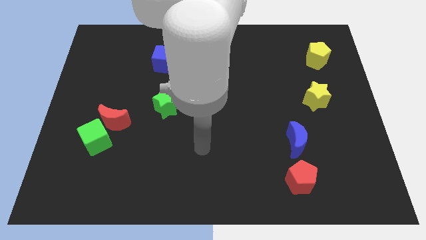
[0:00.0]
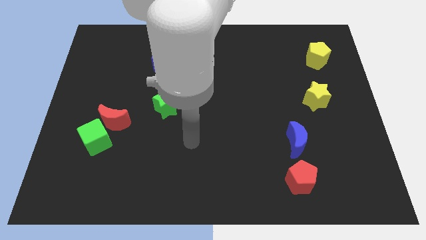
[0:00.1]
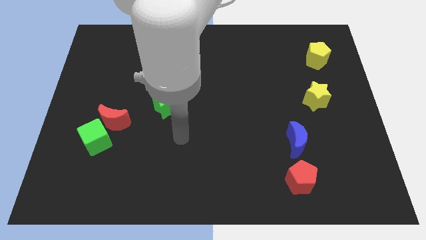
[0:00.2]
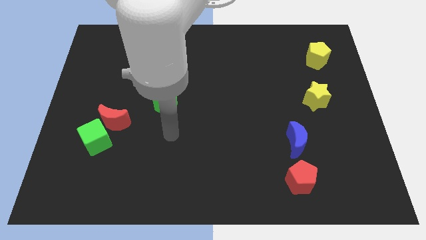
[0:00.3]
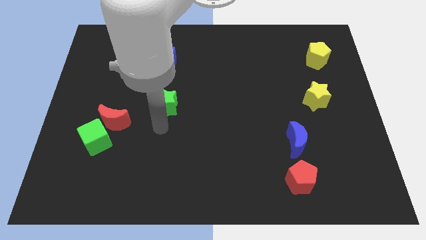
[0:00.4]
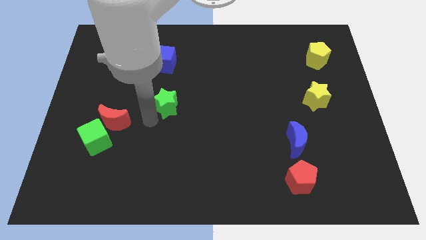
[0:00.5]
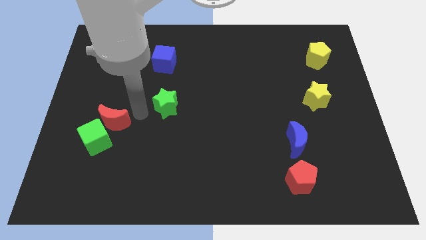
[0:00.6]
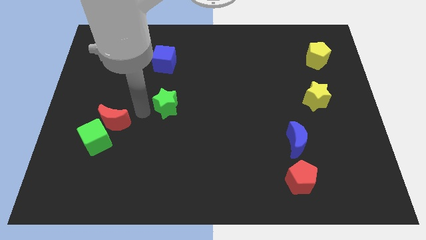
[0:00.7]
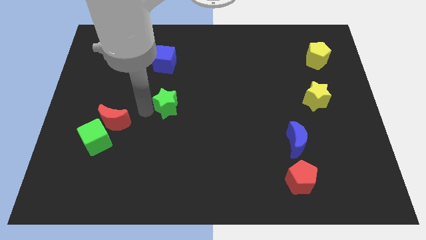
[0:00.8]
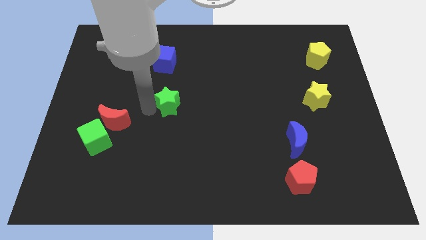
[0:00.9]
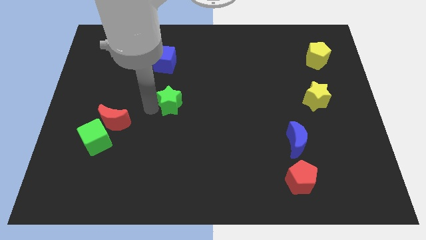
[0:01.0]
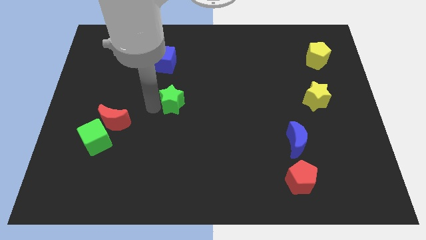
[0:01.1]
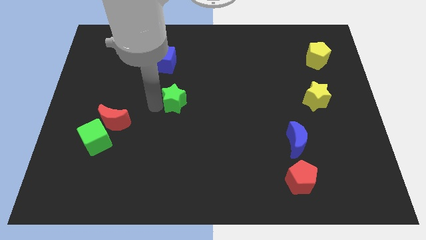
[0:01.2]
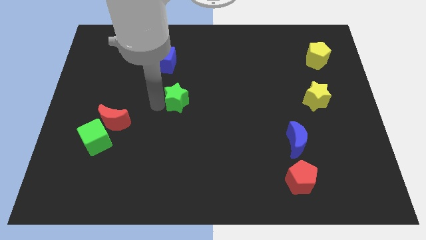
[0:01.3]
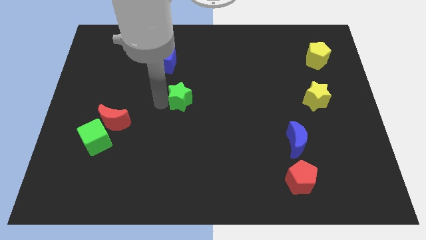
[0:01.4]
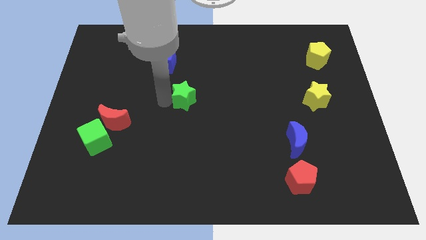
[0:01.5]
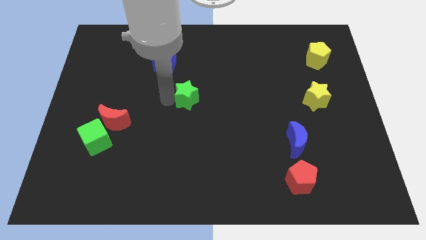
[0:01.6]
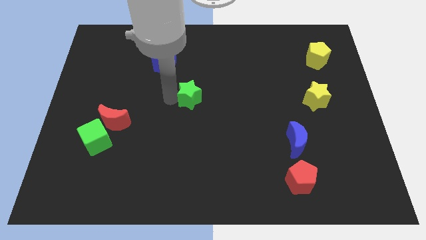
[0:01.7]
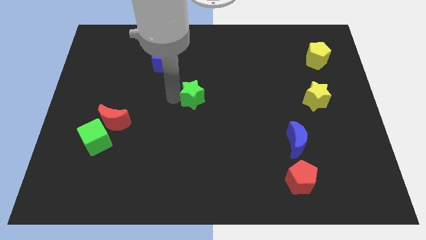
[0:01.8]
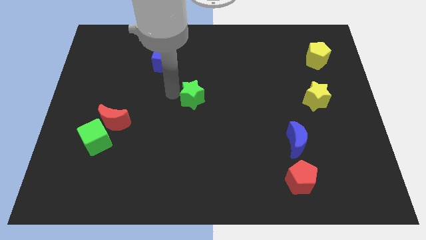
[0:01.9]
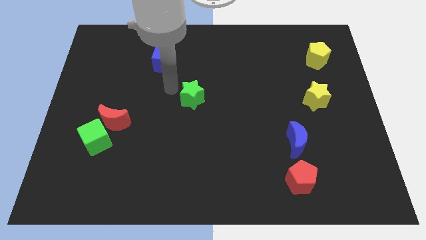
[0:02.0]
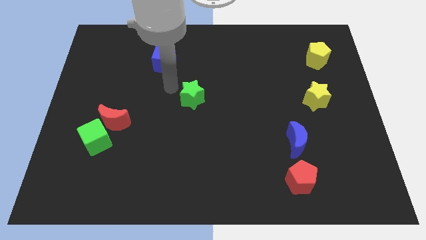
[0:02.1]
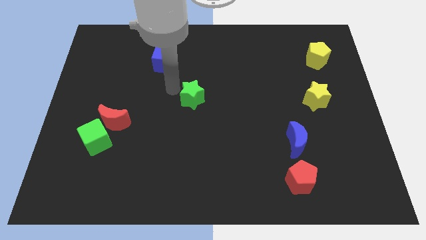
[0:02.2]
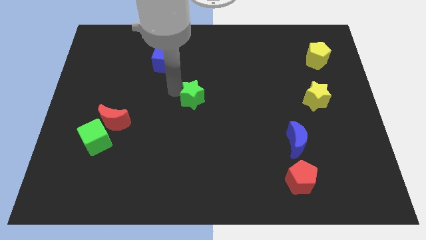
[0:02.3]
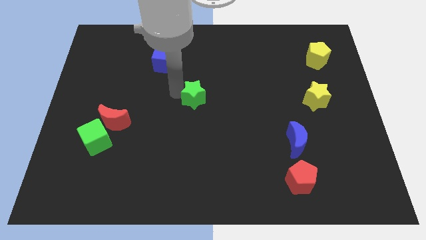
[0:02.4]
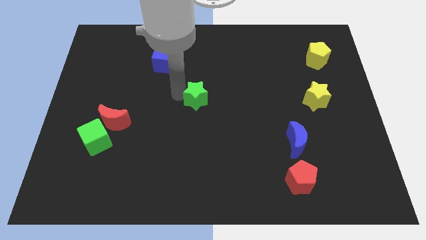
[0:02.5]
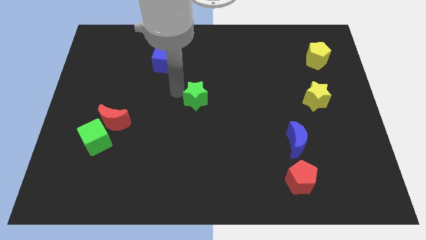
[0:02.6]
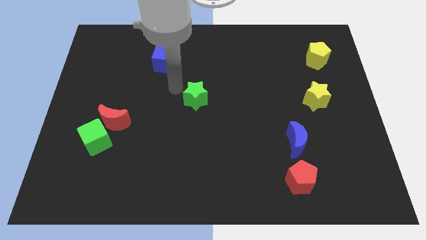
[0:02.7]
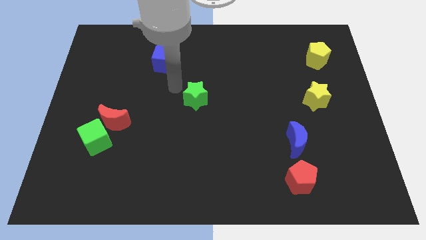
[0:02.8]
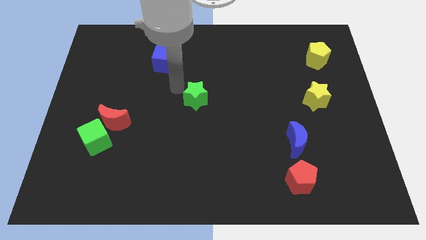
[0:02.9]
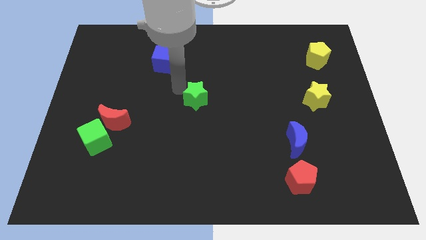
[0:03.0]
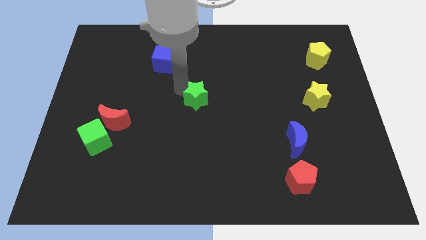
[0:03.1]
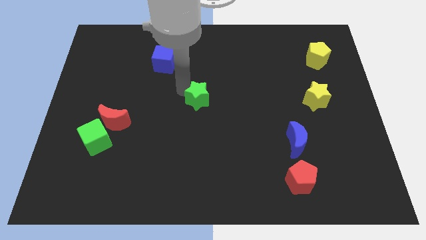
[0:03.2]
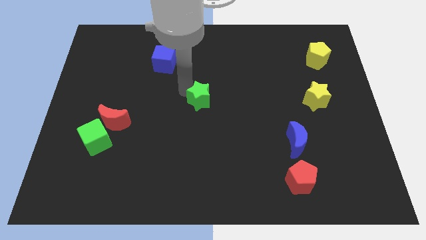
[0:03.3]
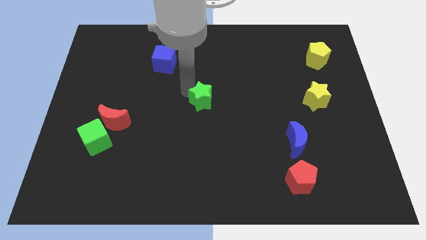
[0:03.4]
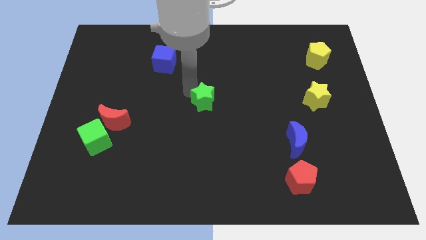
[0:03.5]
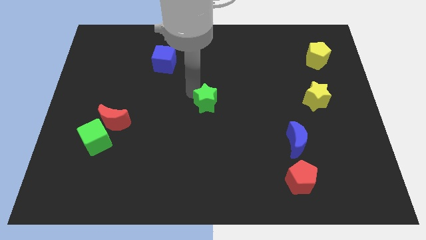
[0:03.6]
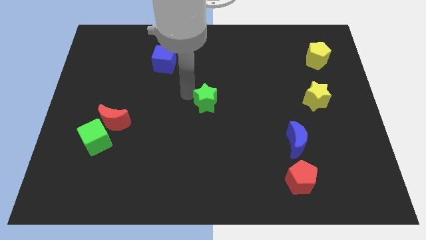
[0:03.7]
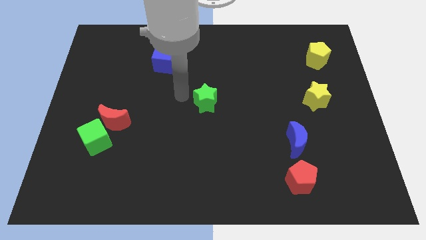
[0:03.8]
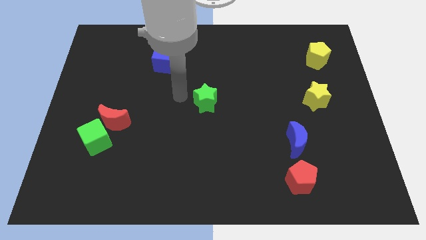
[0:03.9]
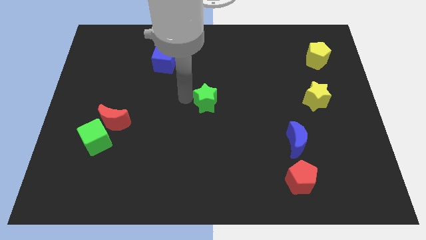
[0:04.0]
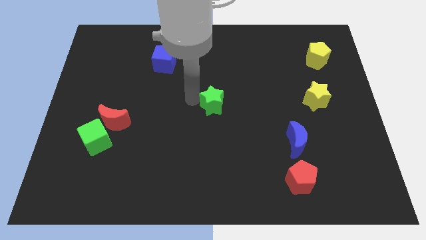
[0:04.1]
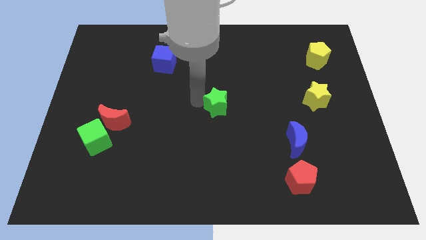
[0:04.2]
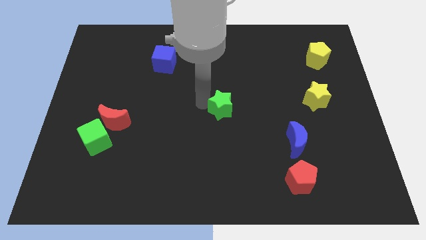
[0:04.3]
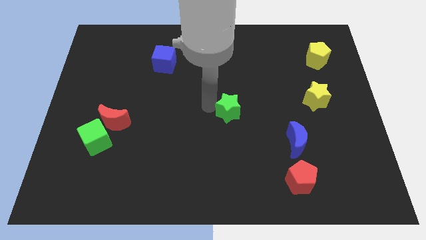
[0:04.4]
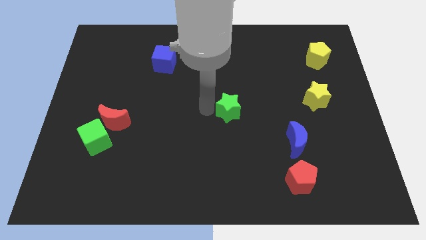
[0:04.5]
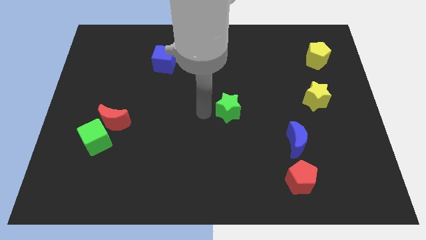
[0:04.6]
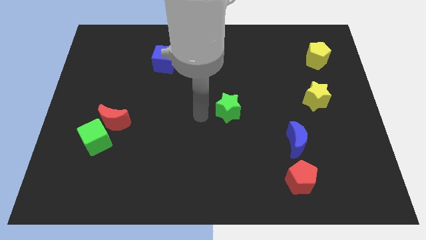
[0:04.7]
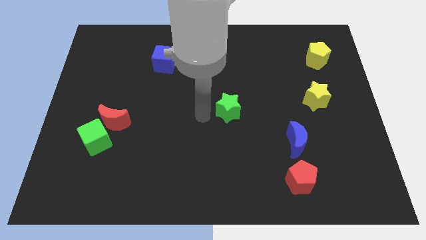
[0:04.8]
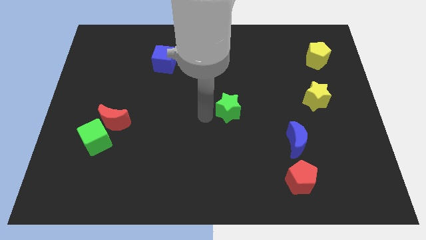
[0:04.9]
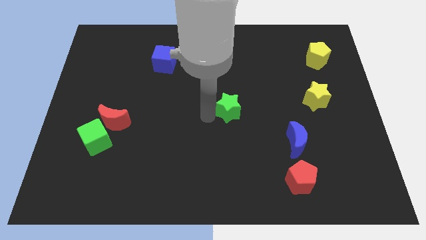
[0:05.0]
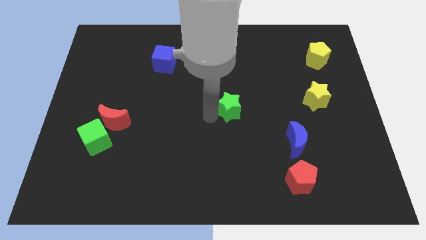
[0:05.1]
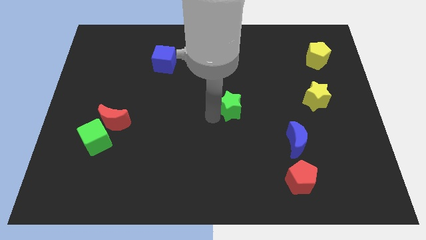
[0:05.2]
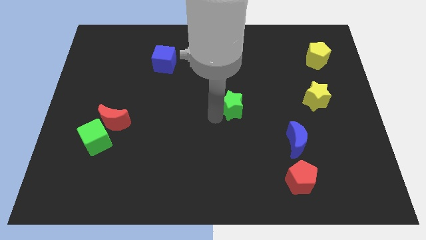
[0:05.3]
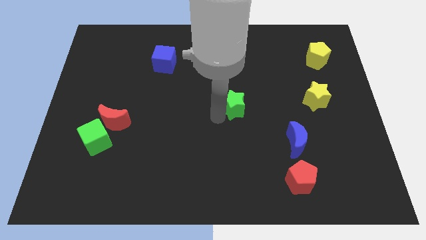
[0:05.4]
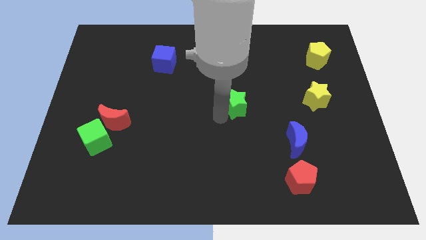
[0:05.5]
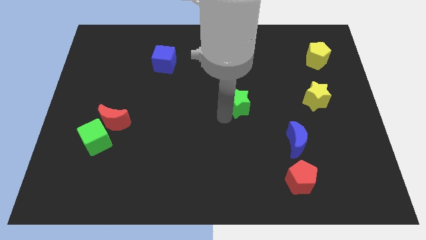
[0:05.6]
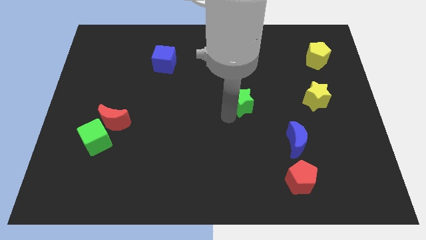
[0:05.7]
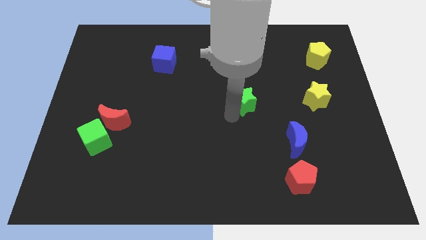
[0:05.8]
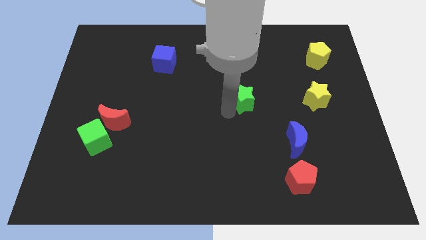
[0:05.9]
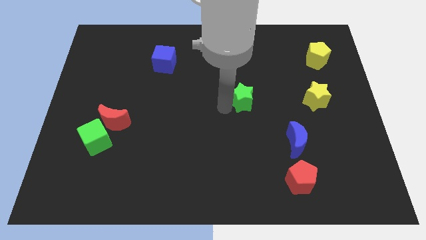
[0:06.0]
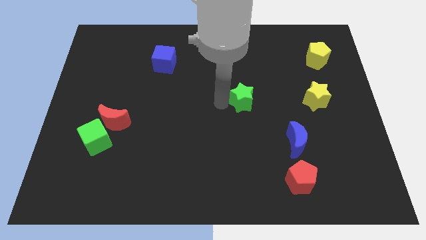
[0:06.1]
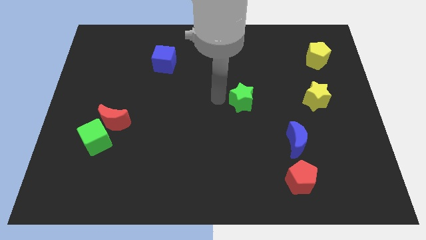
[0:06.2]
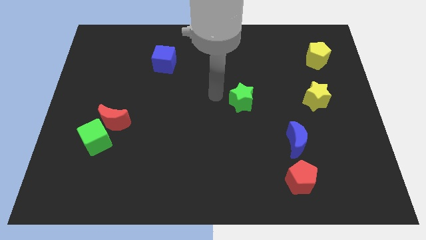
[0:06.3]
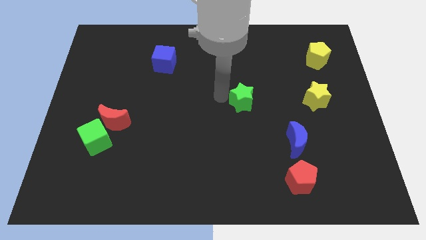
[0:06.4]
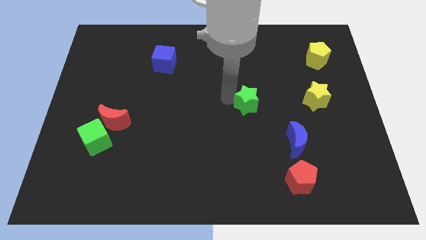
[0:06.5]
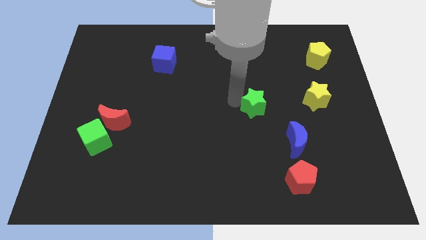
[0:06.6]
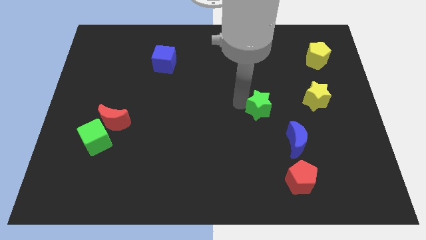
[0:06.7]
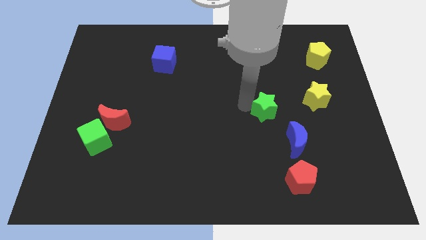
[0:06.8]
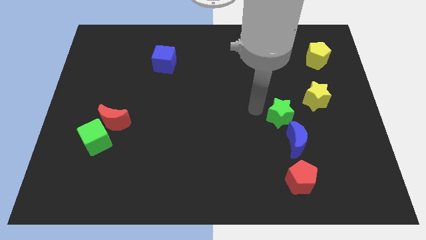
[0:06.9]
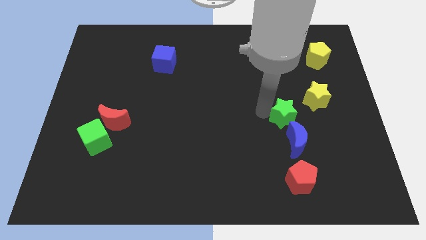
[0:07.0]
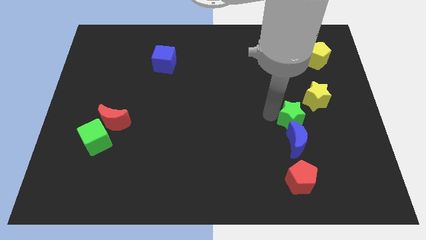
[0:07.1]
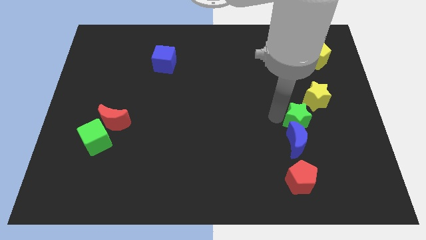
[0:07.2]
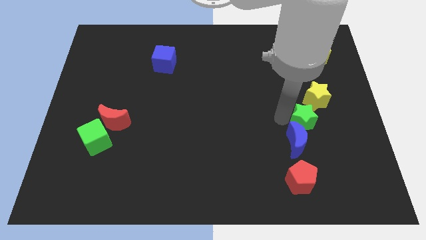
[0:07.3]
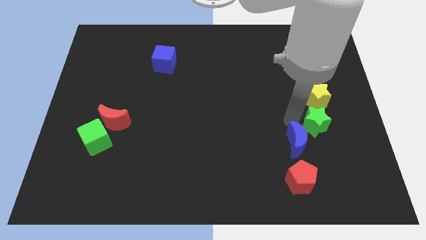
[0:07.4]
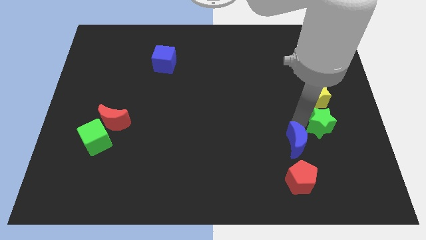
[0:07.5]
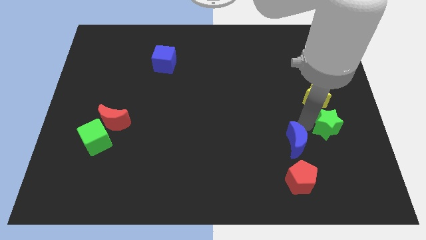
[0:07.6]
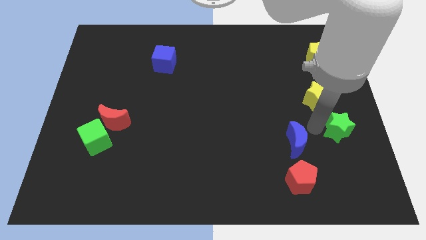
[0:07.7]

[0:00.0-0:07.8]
move the green star to the center right
